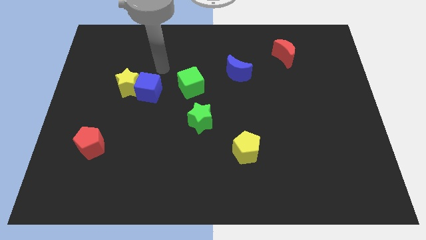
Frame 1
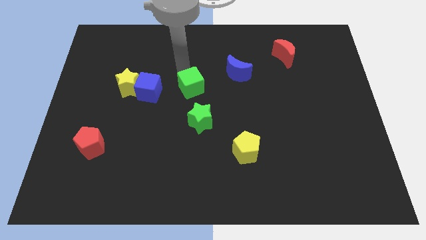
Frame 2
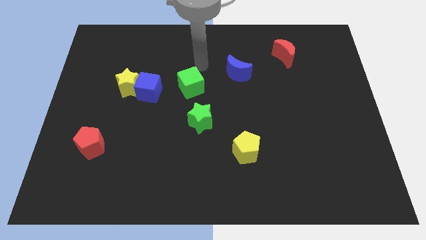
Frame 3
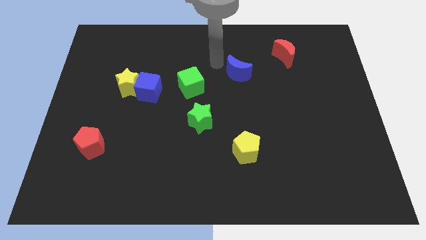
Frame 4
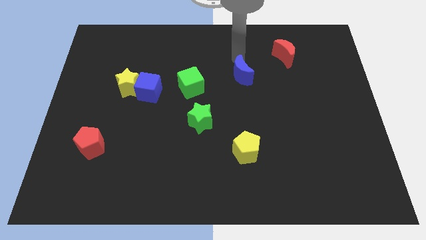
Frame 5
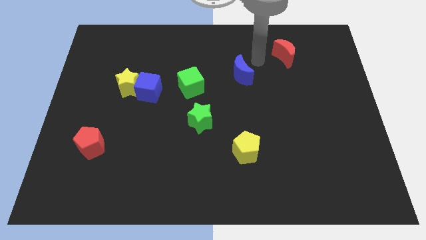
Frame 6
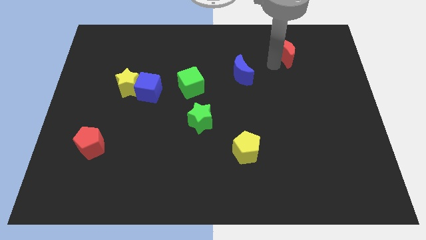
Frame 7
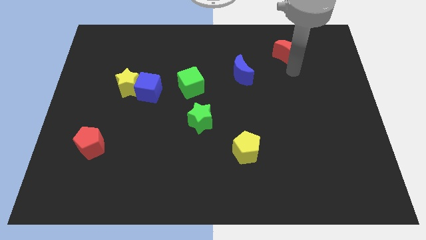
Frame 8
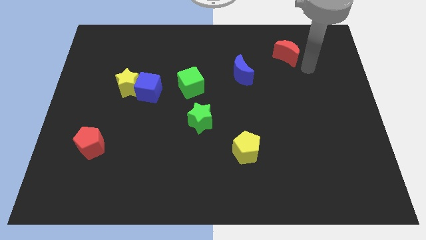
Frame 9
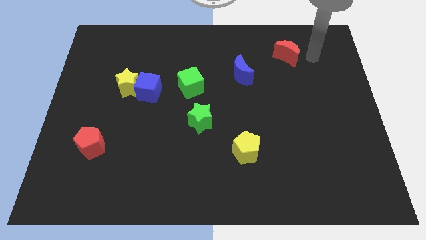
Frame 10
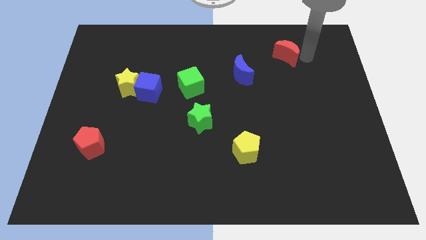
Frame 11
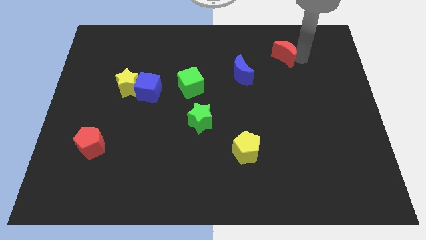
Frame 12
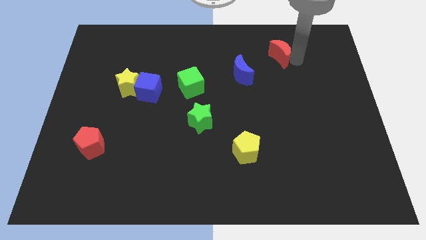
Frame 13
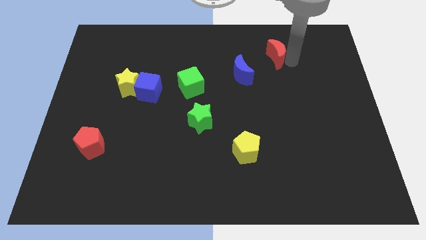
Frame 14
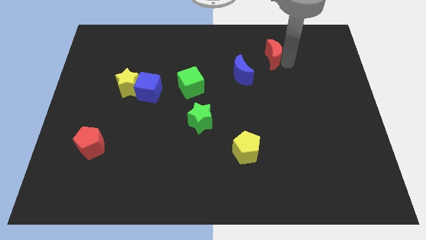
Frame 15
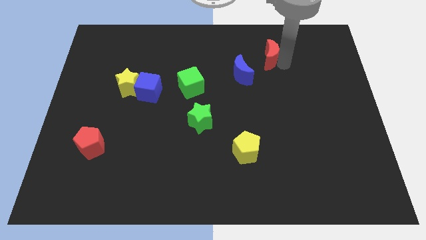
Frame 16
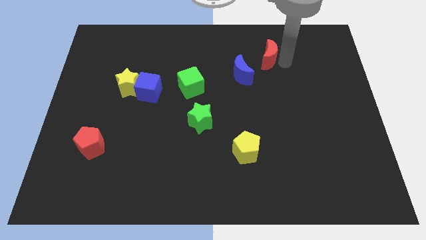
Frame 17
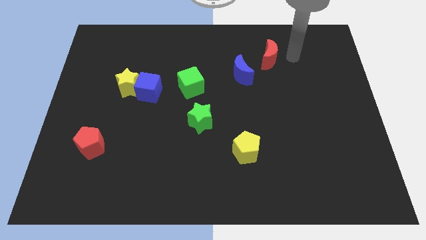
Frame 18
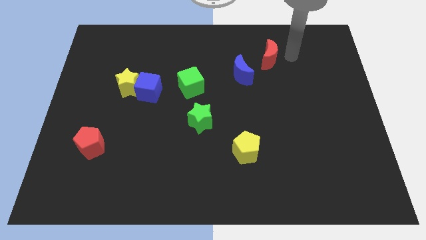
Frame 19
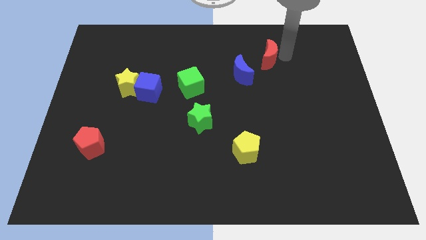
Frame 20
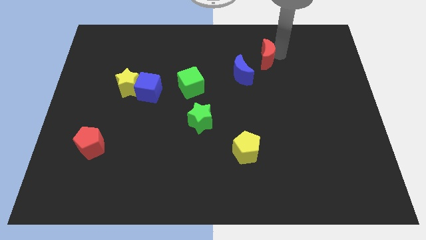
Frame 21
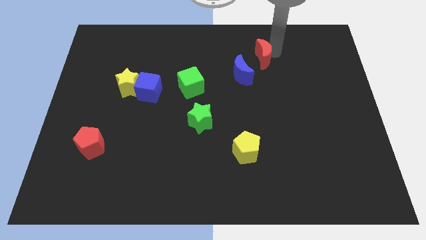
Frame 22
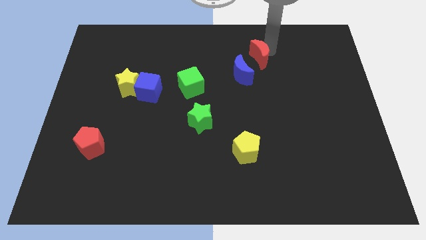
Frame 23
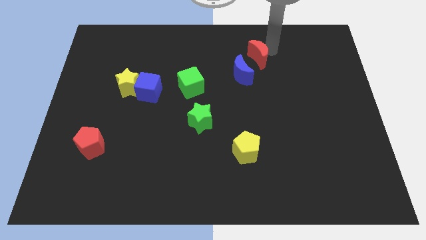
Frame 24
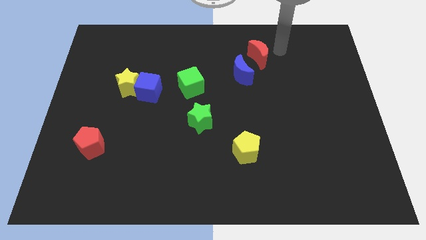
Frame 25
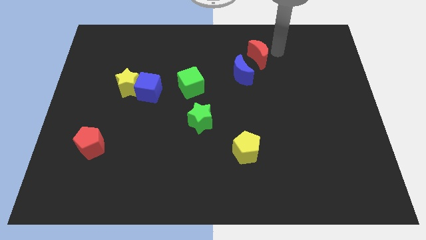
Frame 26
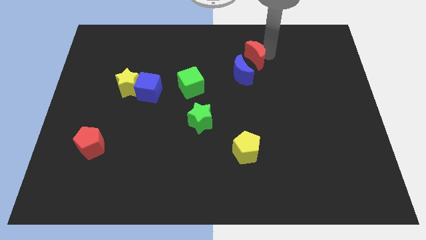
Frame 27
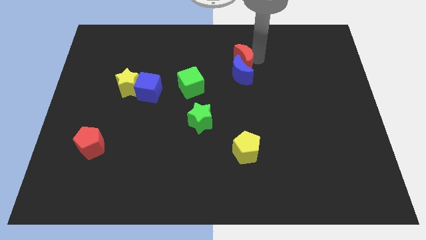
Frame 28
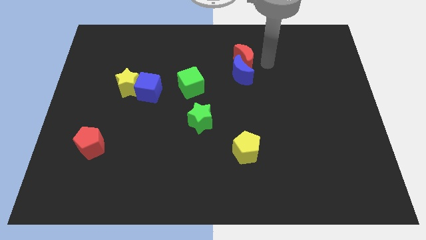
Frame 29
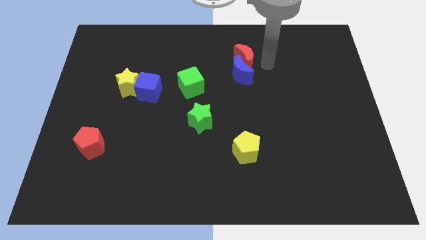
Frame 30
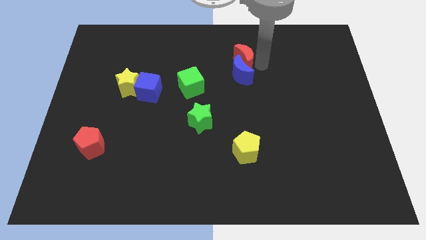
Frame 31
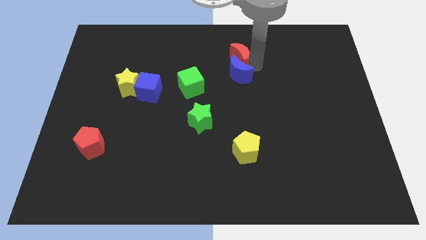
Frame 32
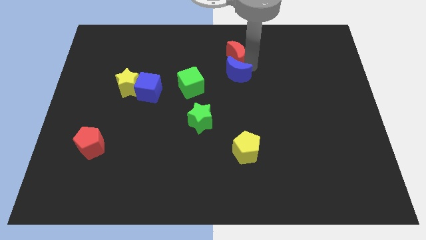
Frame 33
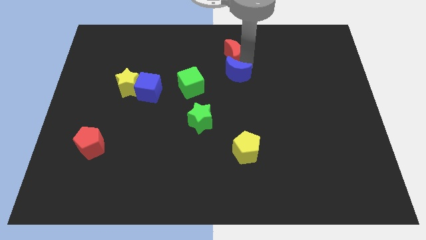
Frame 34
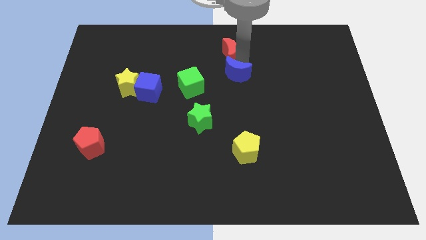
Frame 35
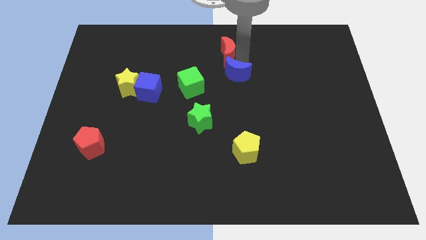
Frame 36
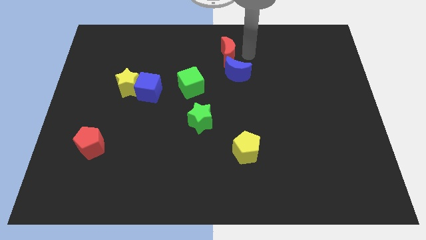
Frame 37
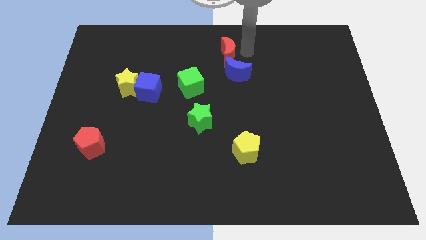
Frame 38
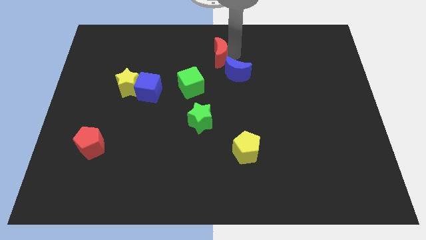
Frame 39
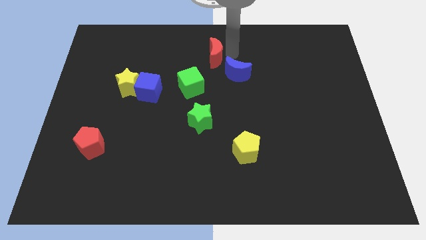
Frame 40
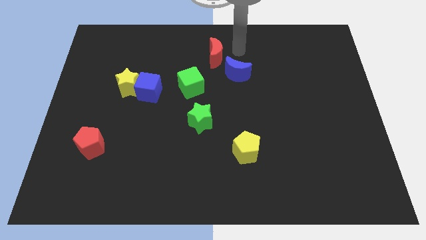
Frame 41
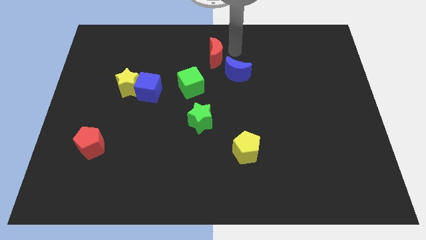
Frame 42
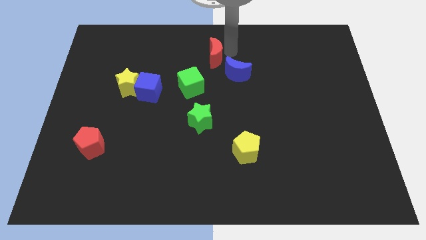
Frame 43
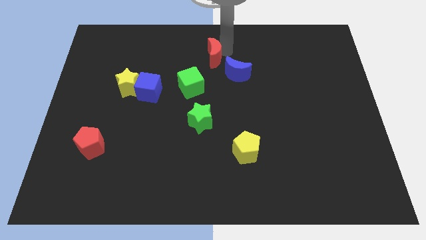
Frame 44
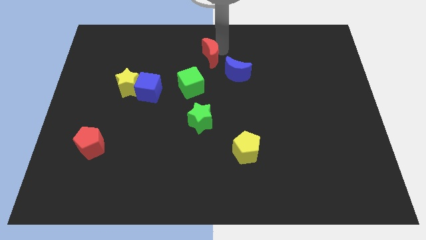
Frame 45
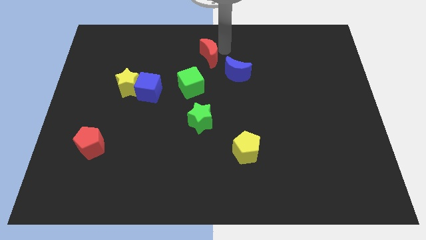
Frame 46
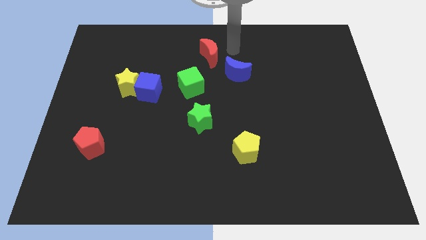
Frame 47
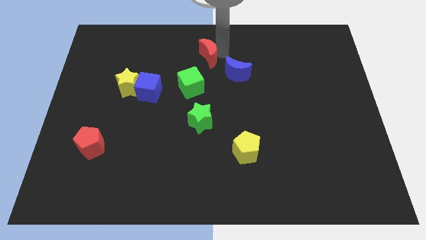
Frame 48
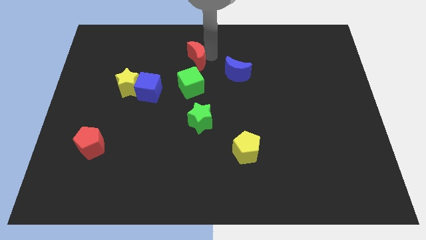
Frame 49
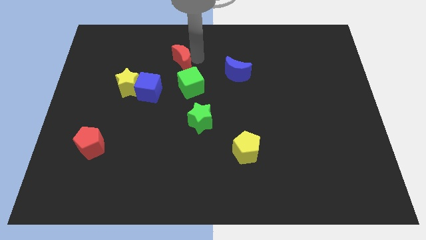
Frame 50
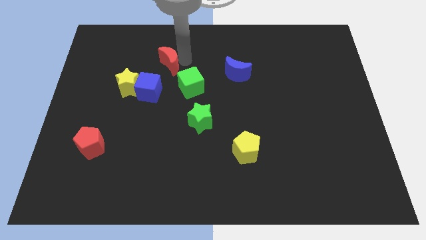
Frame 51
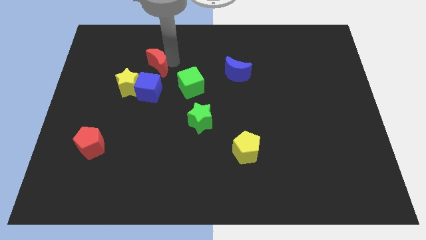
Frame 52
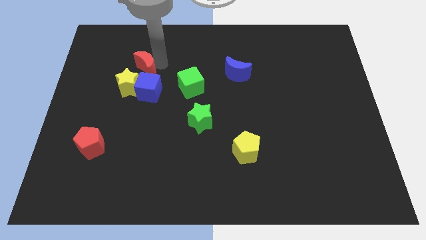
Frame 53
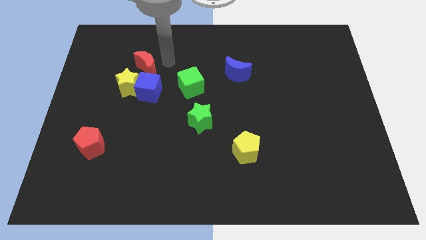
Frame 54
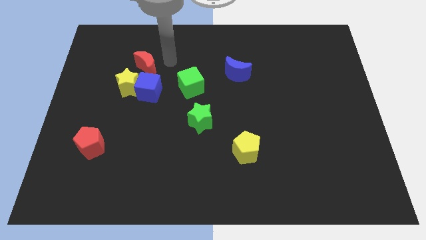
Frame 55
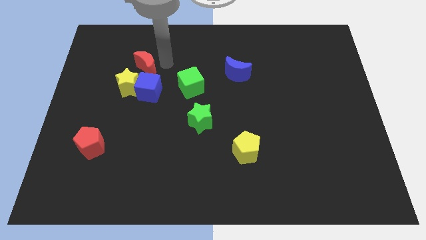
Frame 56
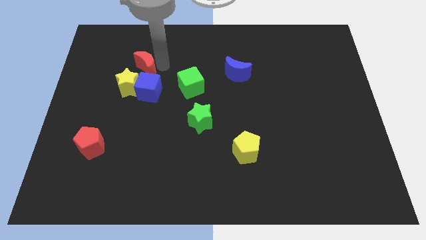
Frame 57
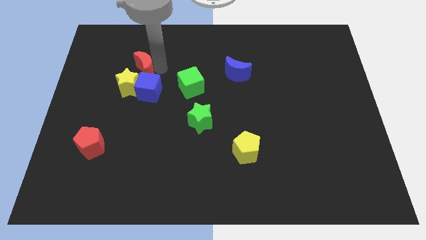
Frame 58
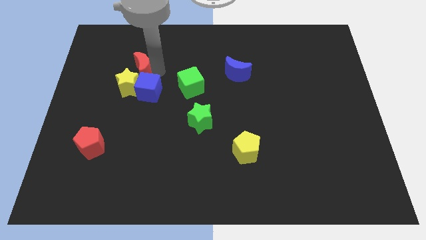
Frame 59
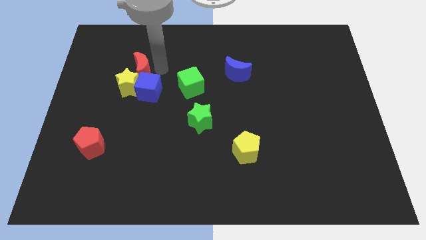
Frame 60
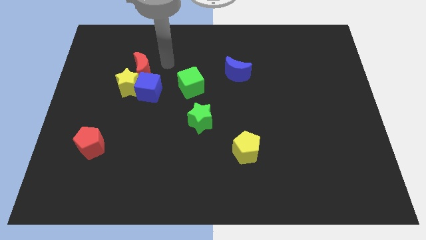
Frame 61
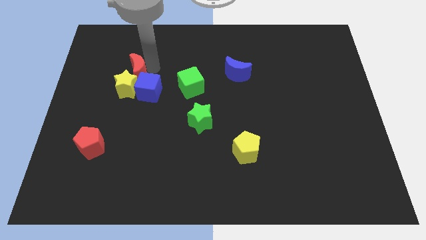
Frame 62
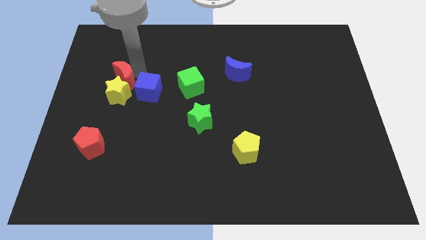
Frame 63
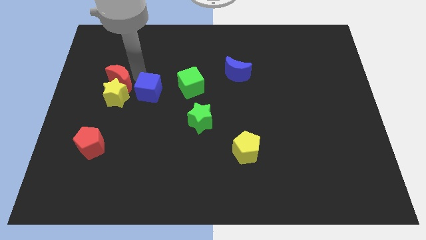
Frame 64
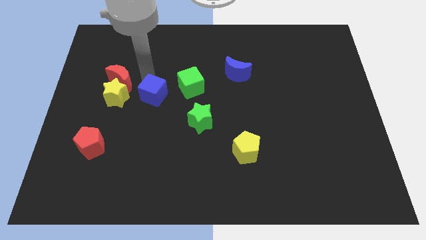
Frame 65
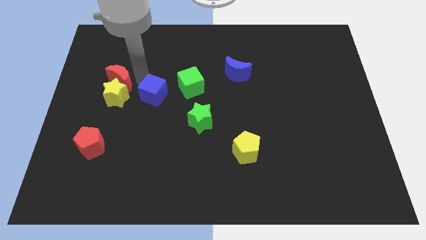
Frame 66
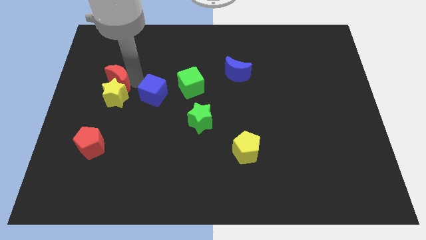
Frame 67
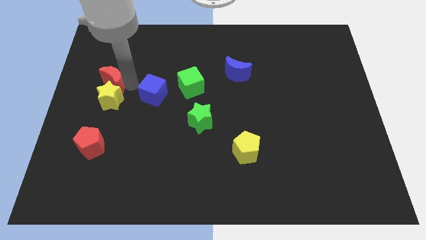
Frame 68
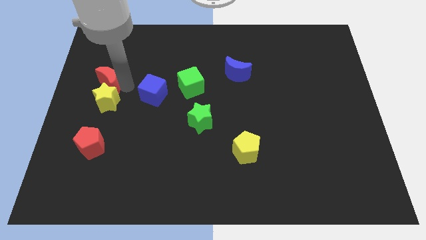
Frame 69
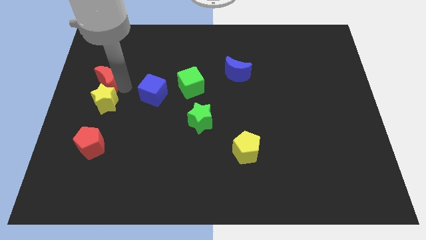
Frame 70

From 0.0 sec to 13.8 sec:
put the red moon to the left side
